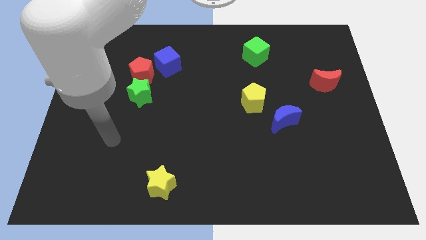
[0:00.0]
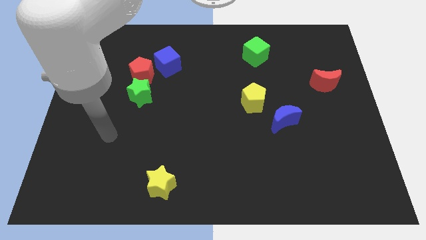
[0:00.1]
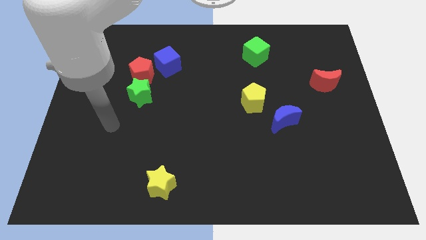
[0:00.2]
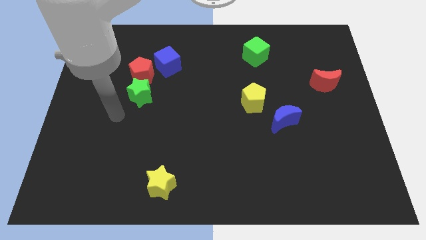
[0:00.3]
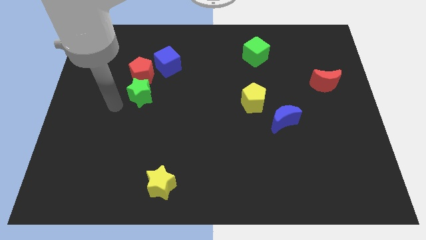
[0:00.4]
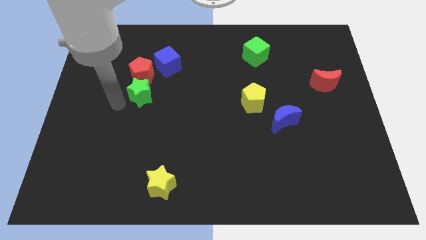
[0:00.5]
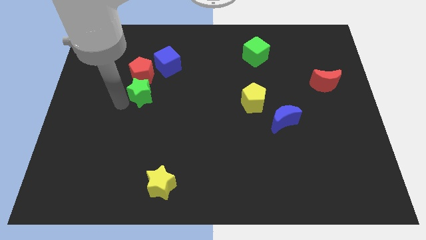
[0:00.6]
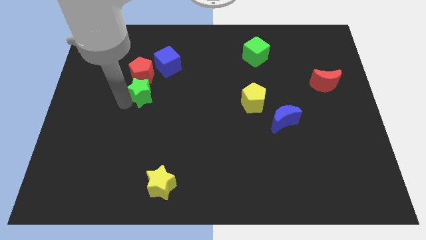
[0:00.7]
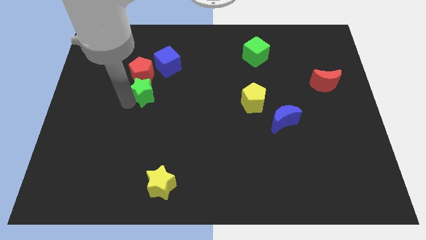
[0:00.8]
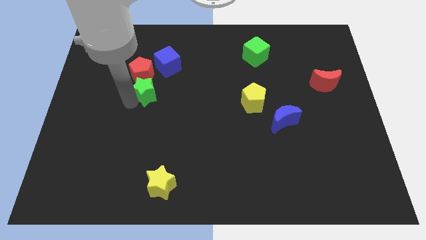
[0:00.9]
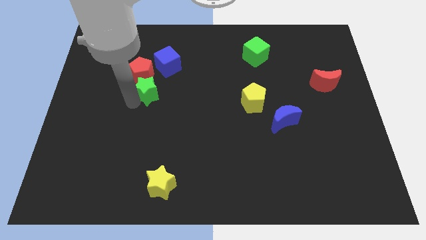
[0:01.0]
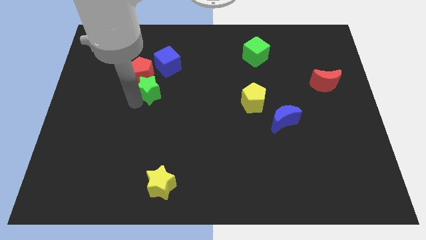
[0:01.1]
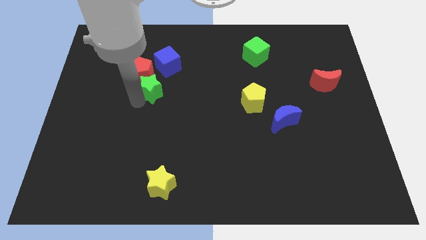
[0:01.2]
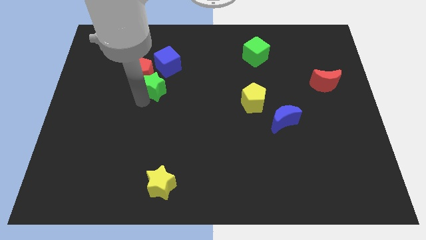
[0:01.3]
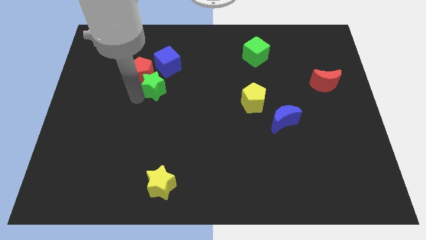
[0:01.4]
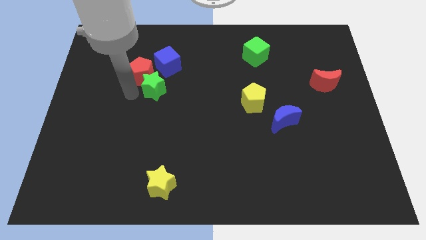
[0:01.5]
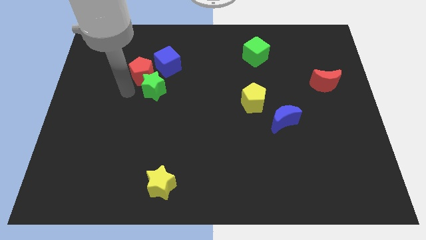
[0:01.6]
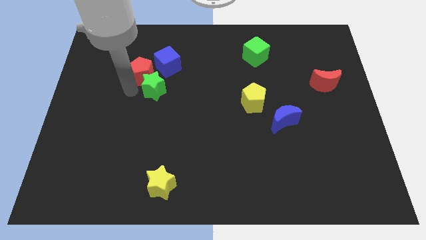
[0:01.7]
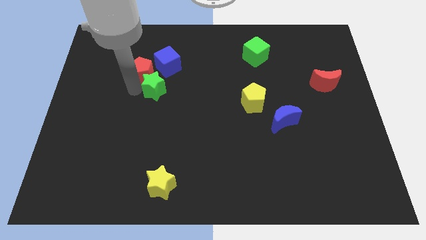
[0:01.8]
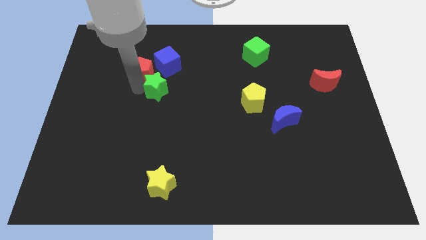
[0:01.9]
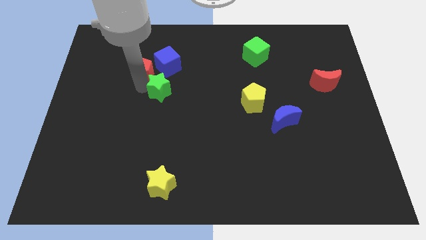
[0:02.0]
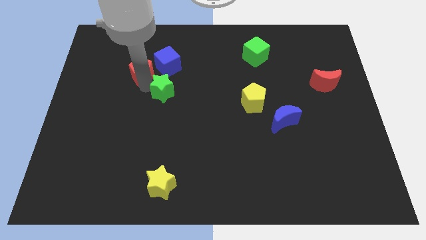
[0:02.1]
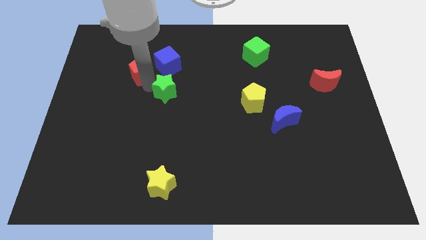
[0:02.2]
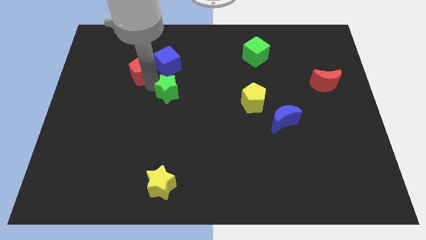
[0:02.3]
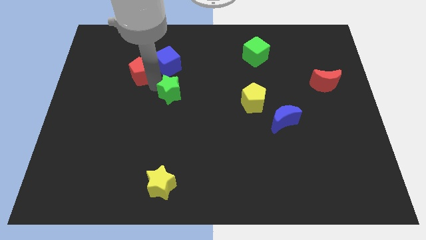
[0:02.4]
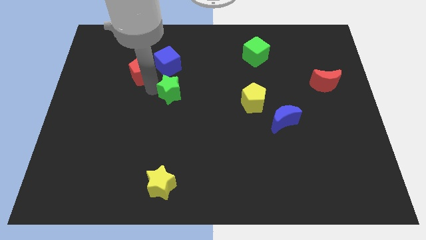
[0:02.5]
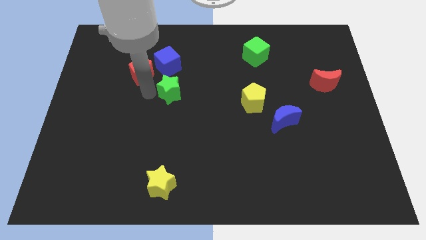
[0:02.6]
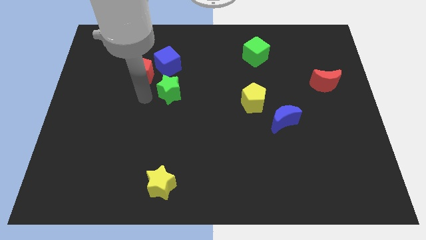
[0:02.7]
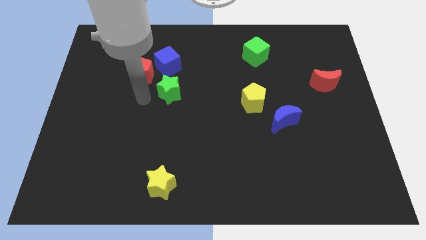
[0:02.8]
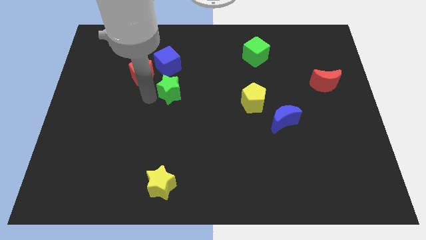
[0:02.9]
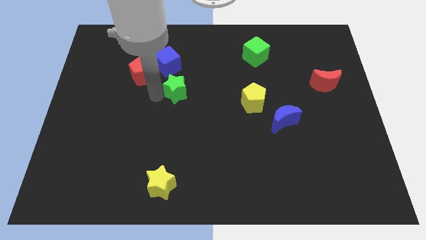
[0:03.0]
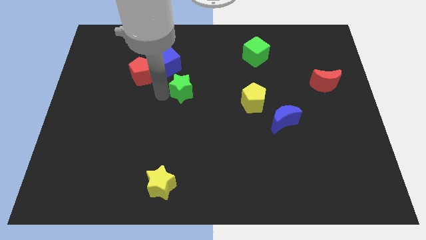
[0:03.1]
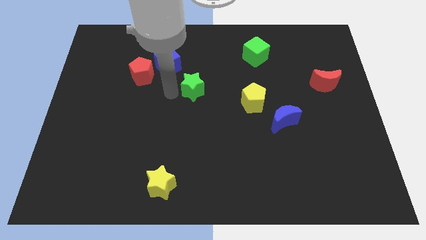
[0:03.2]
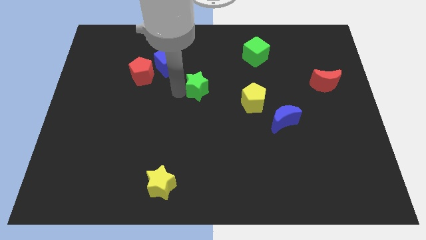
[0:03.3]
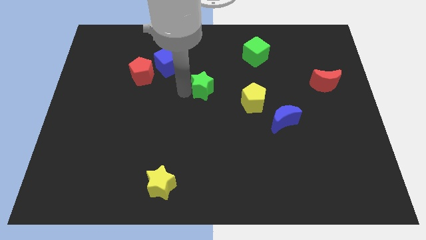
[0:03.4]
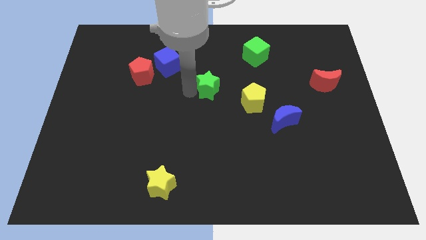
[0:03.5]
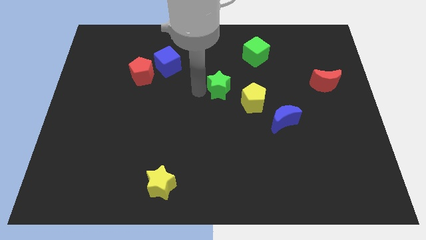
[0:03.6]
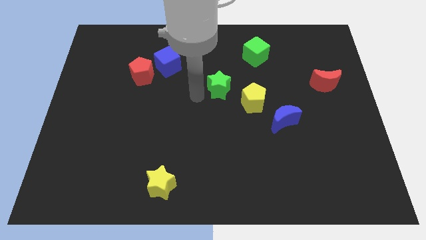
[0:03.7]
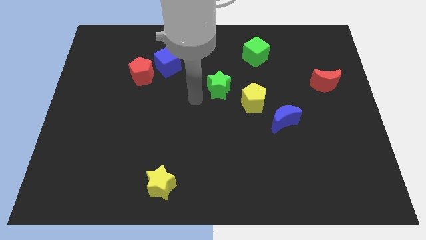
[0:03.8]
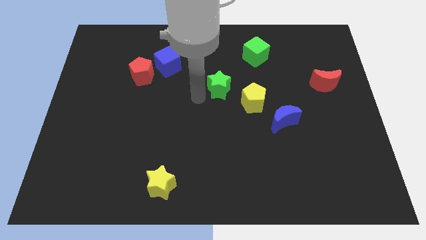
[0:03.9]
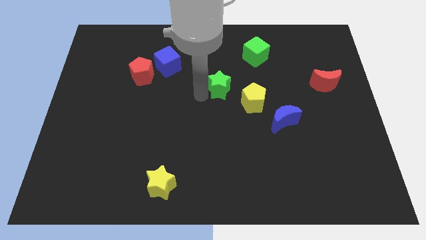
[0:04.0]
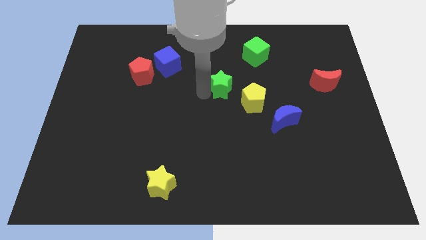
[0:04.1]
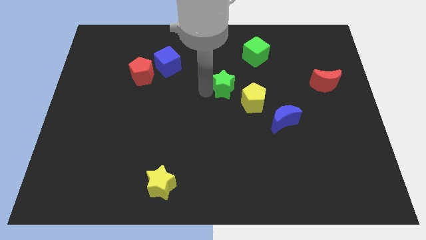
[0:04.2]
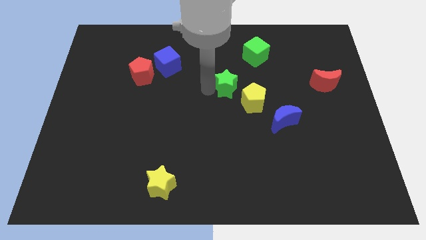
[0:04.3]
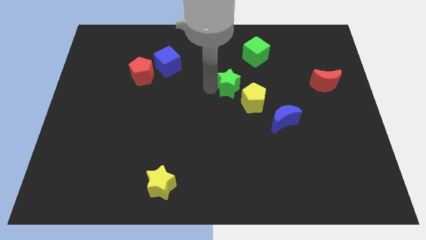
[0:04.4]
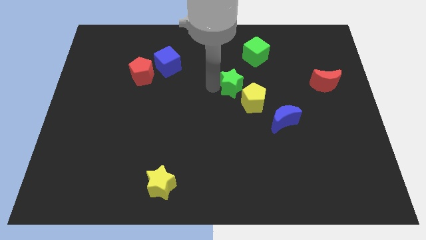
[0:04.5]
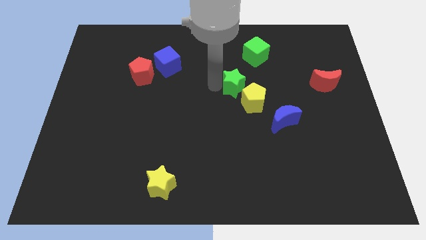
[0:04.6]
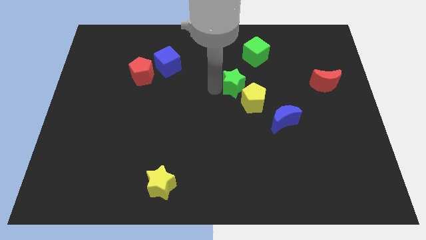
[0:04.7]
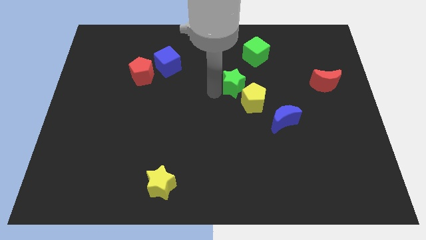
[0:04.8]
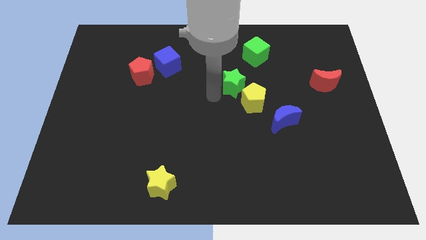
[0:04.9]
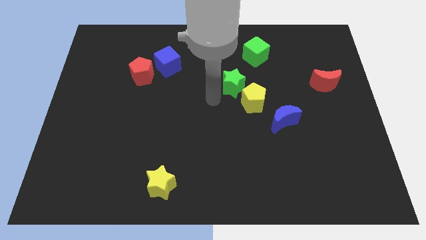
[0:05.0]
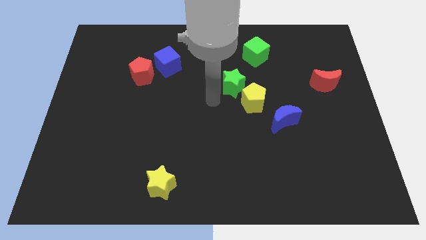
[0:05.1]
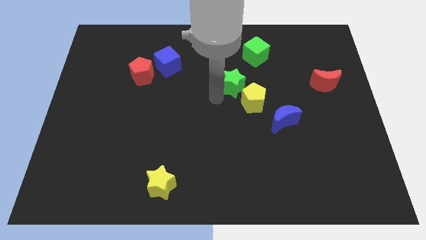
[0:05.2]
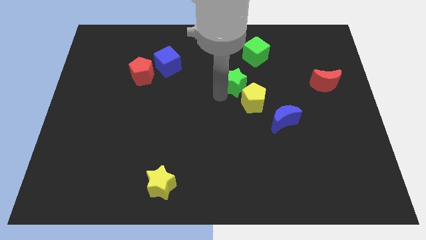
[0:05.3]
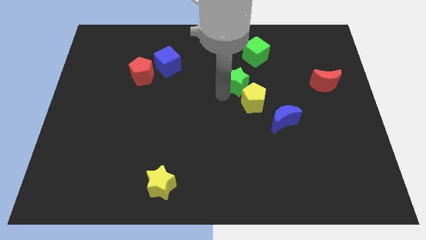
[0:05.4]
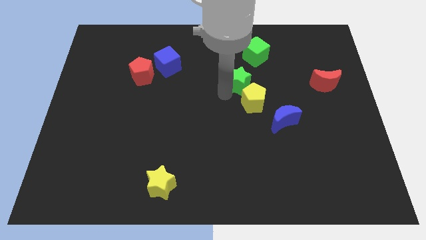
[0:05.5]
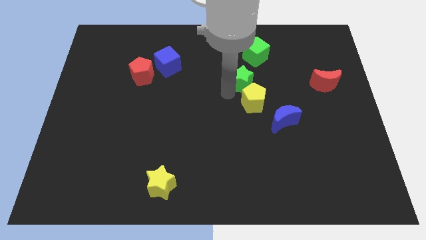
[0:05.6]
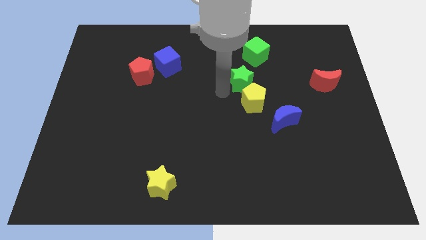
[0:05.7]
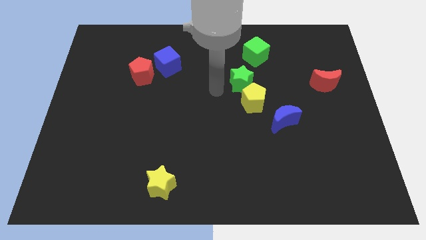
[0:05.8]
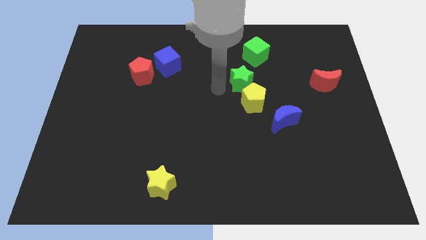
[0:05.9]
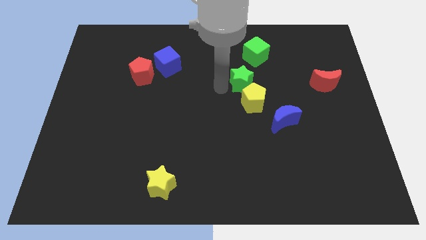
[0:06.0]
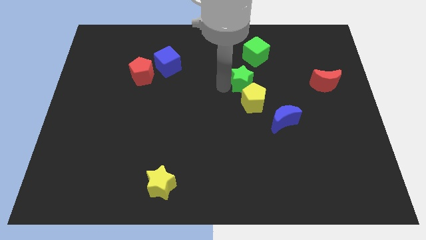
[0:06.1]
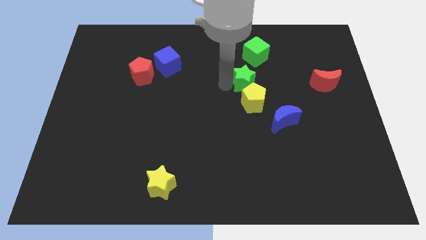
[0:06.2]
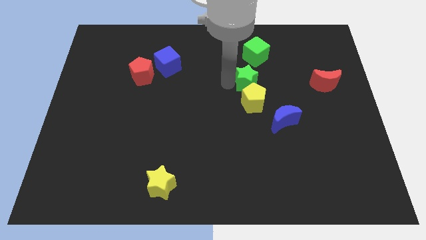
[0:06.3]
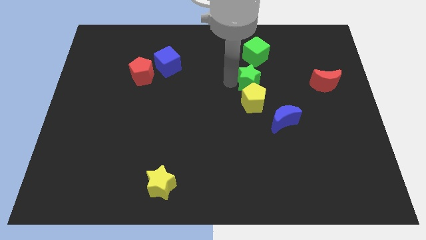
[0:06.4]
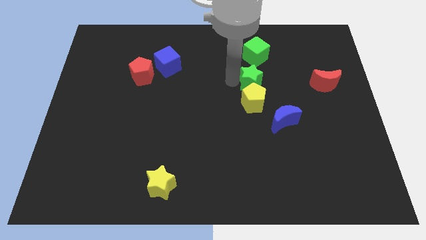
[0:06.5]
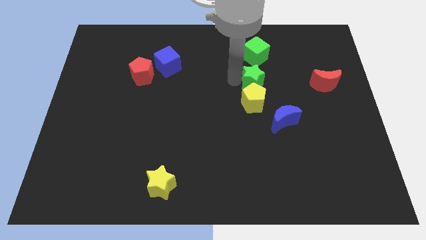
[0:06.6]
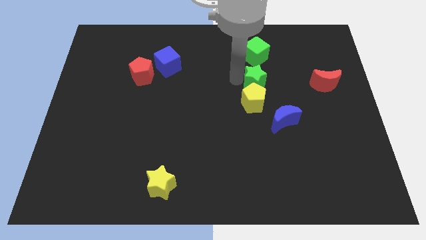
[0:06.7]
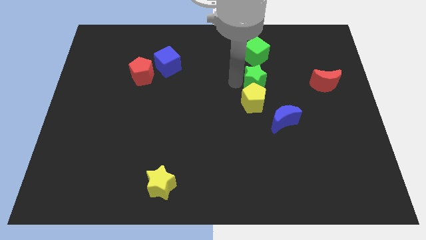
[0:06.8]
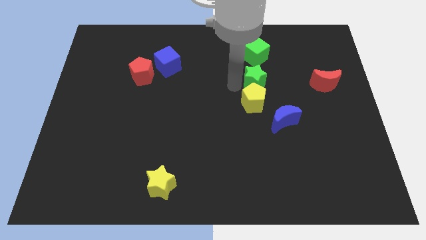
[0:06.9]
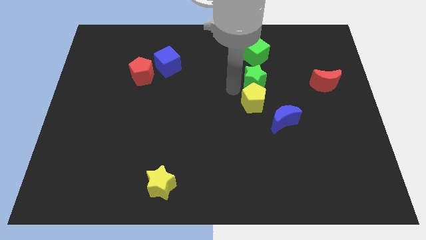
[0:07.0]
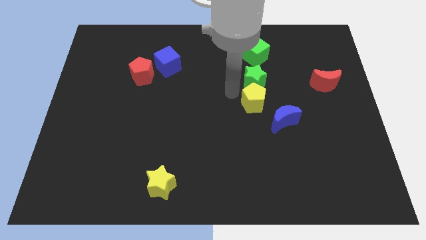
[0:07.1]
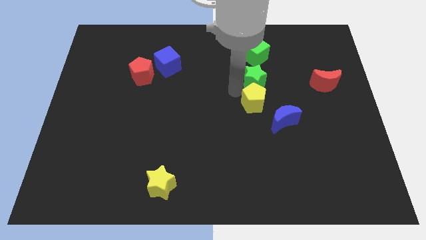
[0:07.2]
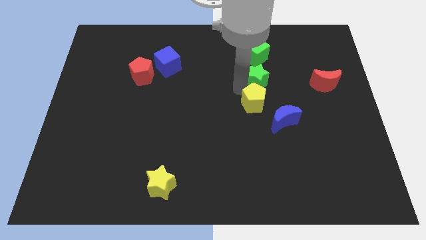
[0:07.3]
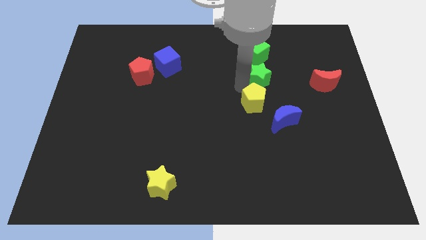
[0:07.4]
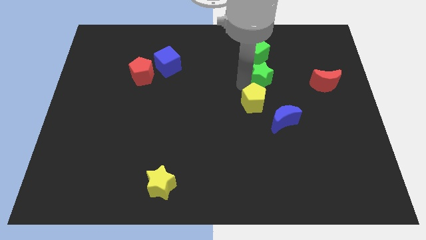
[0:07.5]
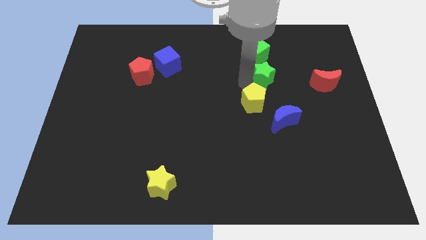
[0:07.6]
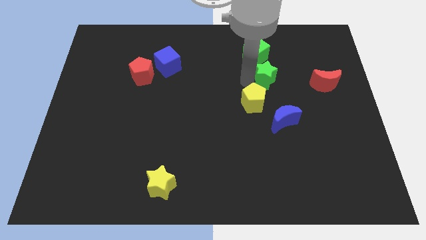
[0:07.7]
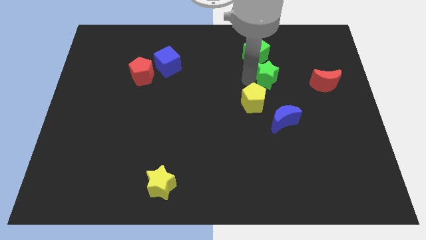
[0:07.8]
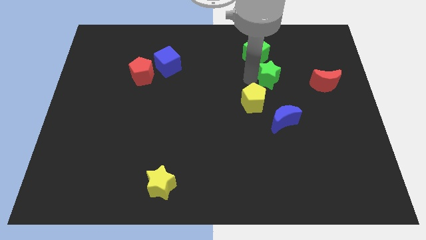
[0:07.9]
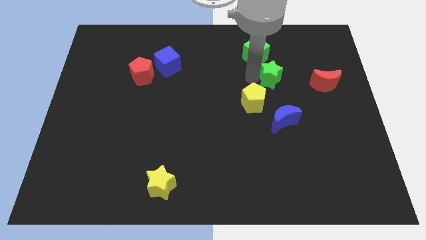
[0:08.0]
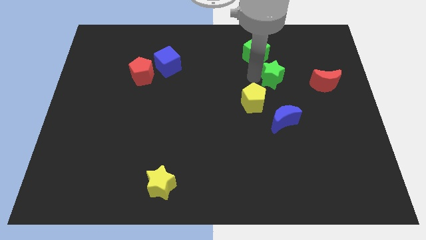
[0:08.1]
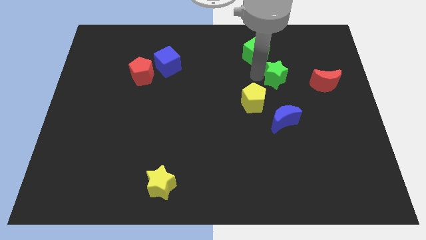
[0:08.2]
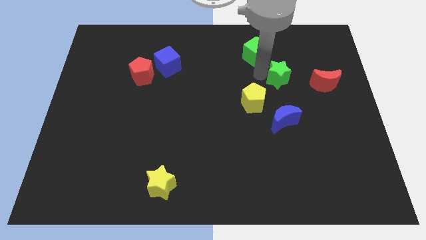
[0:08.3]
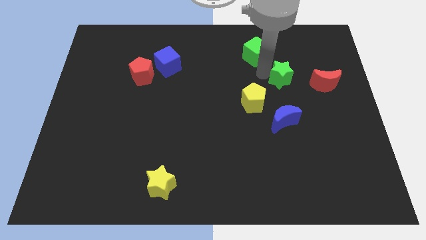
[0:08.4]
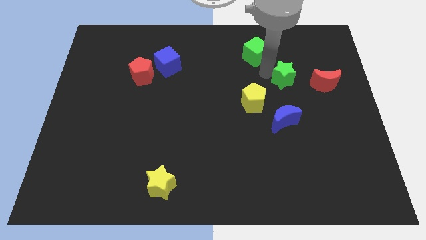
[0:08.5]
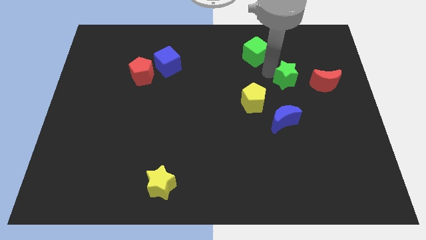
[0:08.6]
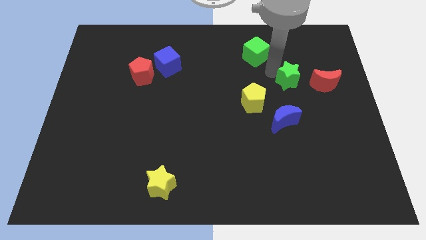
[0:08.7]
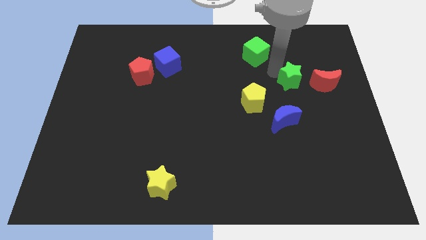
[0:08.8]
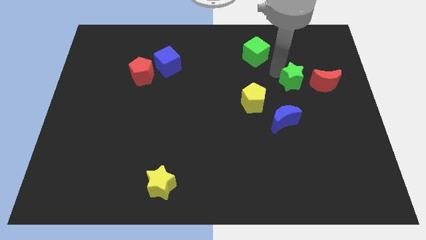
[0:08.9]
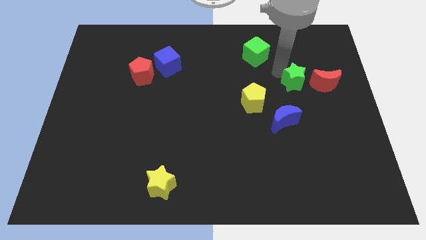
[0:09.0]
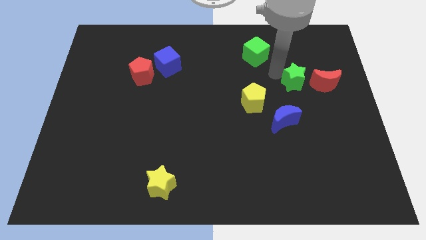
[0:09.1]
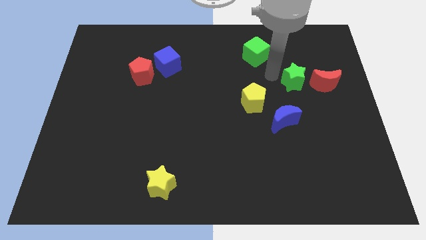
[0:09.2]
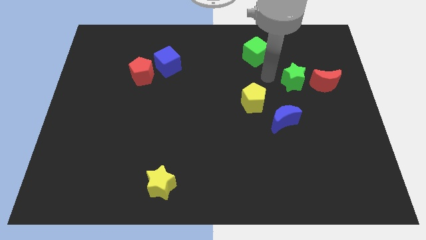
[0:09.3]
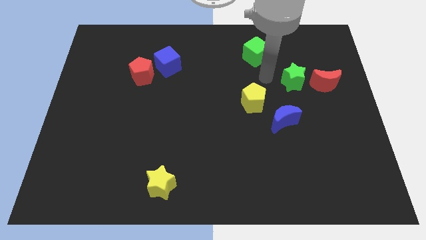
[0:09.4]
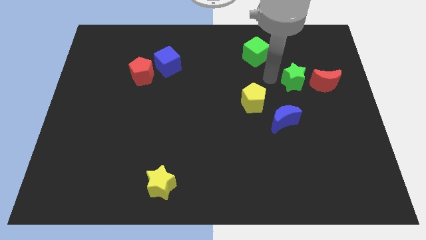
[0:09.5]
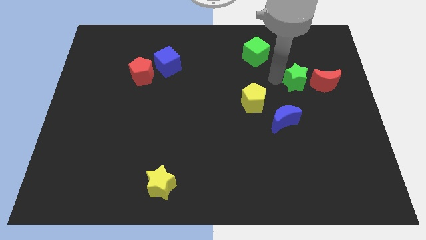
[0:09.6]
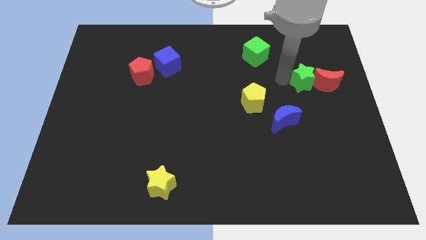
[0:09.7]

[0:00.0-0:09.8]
put the green star to the red moon
